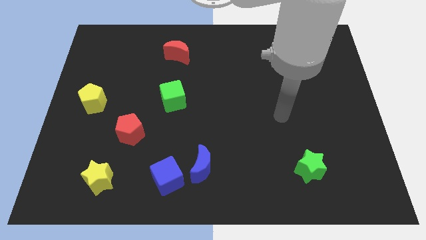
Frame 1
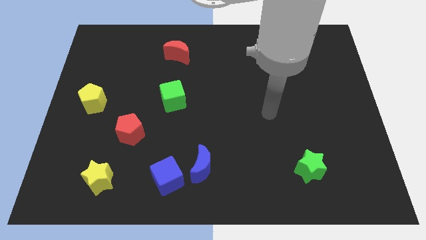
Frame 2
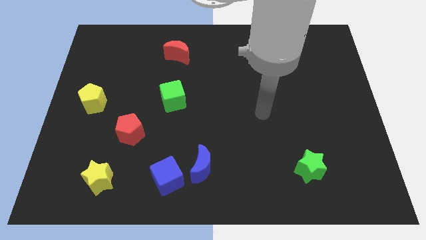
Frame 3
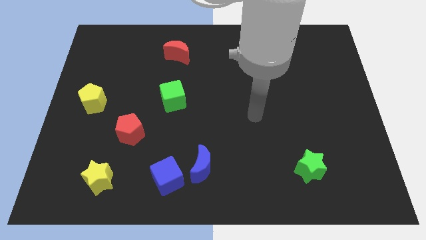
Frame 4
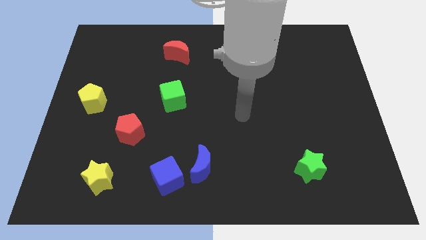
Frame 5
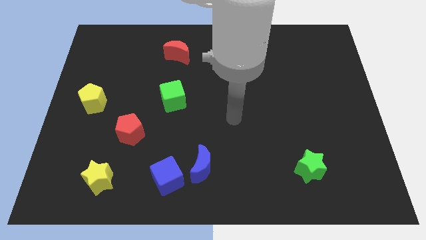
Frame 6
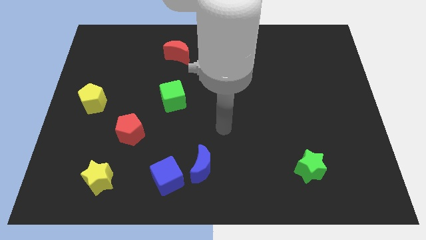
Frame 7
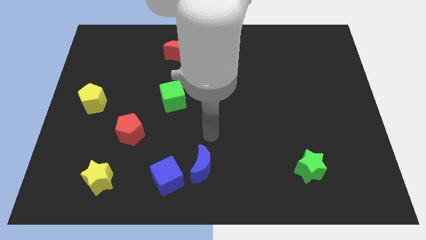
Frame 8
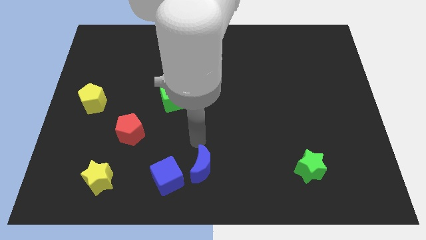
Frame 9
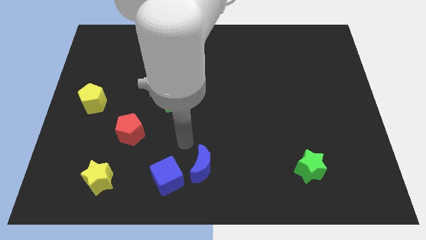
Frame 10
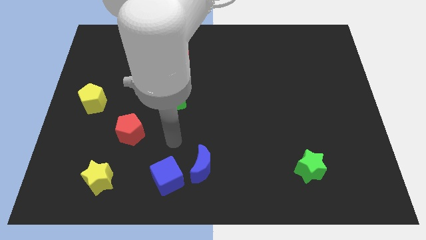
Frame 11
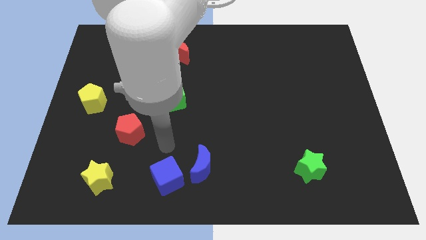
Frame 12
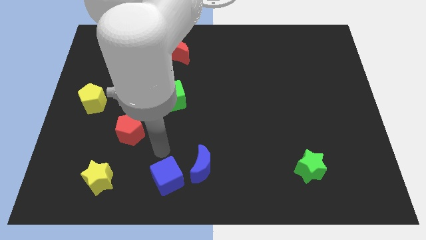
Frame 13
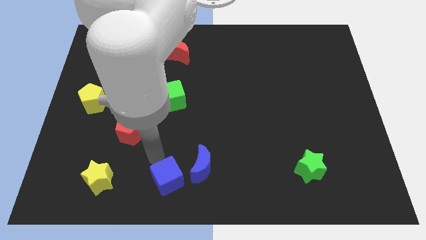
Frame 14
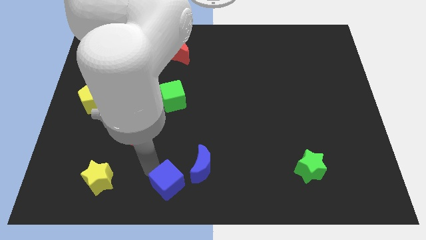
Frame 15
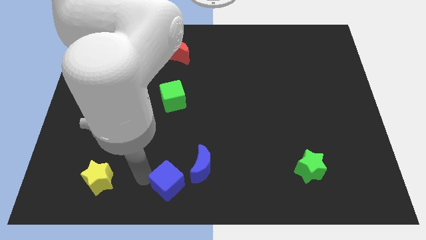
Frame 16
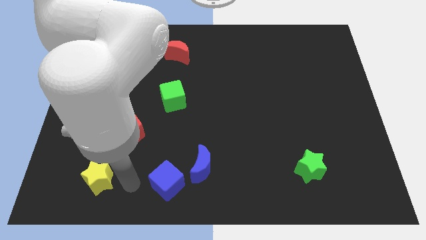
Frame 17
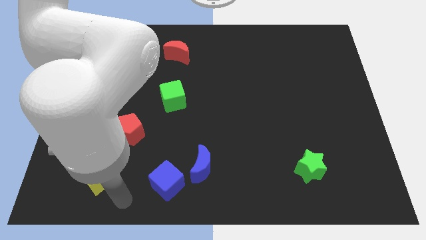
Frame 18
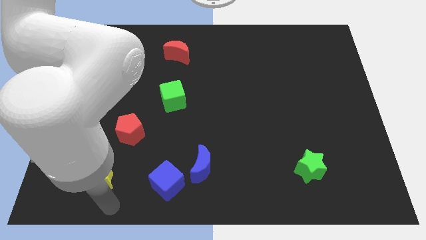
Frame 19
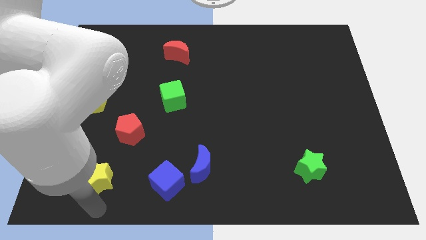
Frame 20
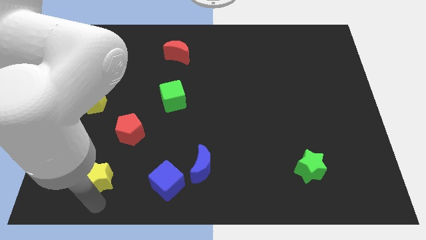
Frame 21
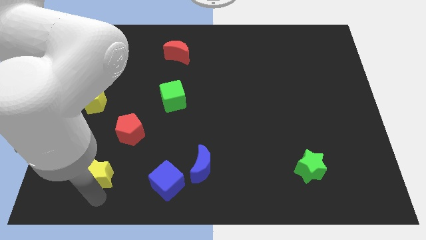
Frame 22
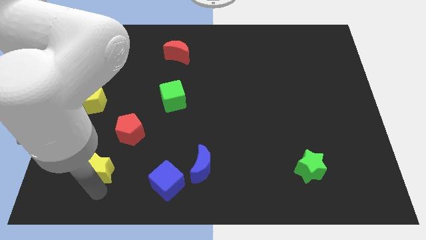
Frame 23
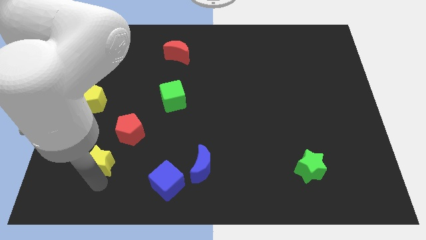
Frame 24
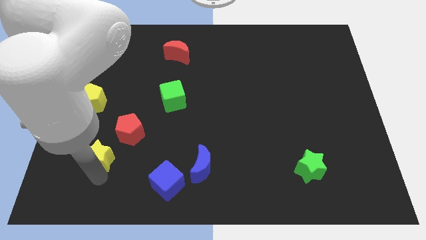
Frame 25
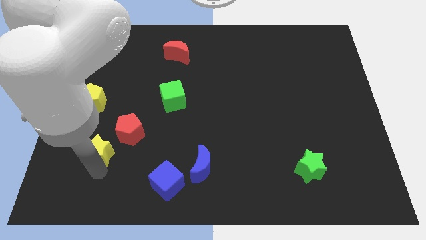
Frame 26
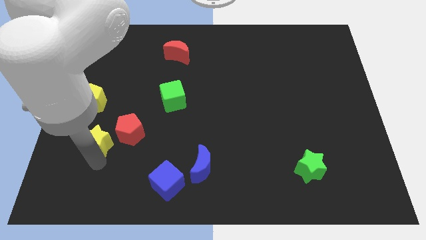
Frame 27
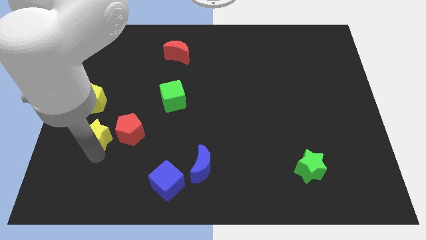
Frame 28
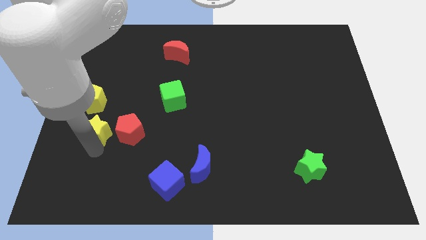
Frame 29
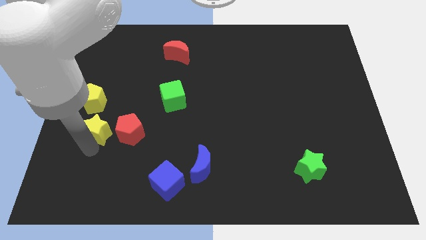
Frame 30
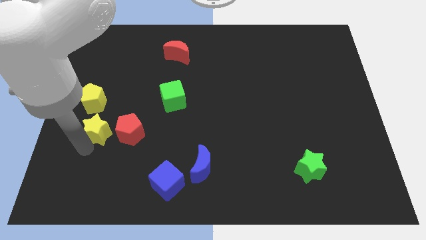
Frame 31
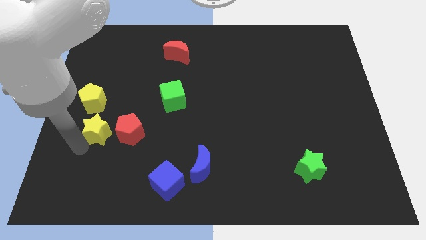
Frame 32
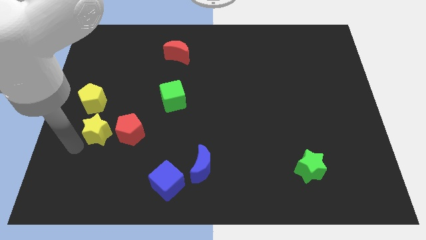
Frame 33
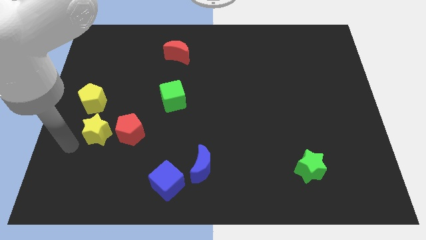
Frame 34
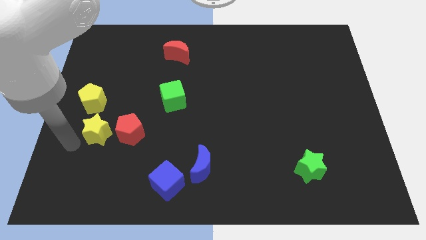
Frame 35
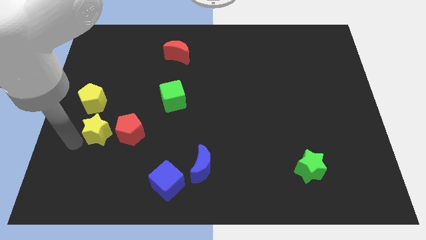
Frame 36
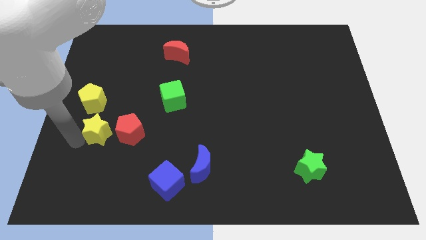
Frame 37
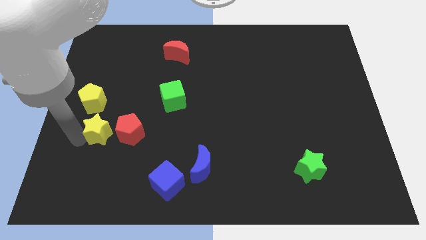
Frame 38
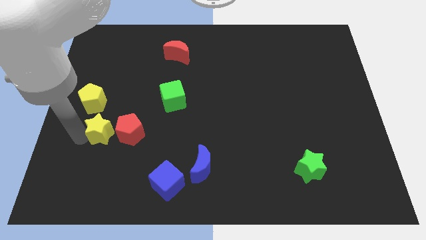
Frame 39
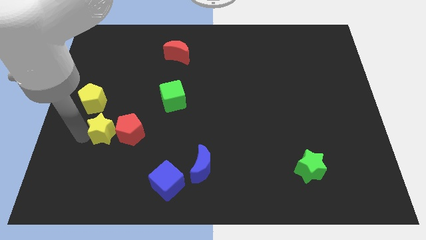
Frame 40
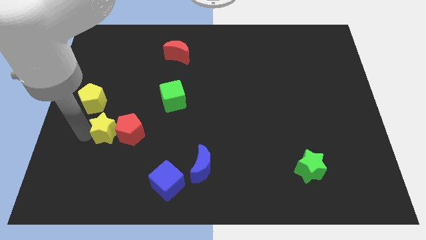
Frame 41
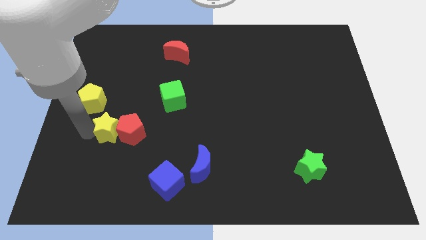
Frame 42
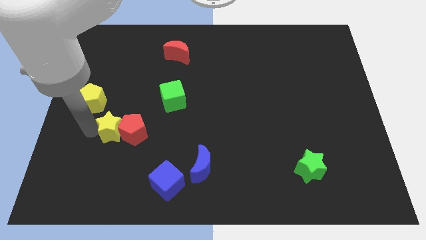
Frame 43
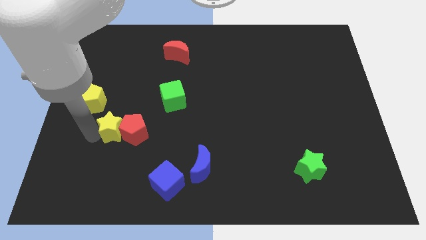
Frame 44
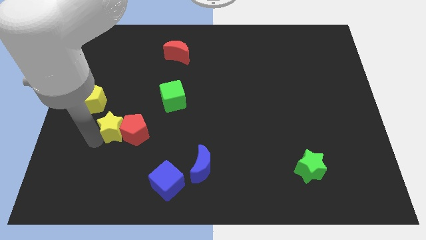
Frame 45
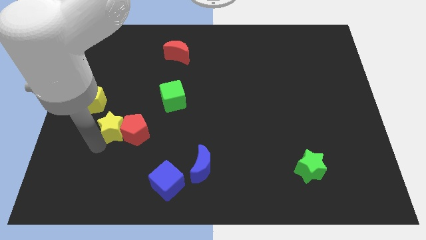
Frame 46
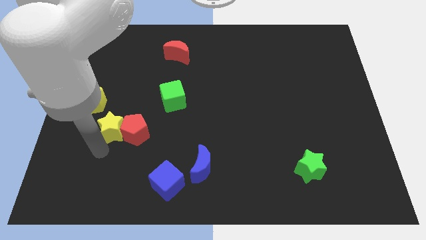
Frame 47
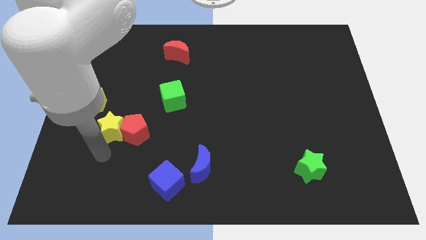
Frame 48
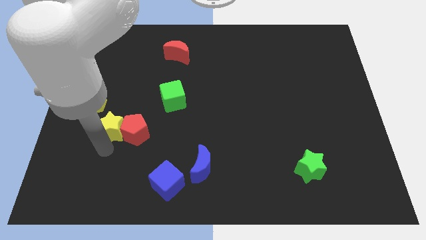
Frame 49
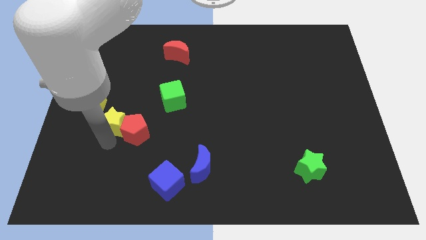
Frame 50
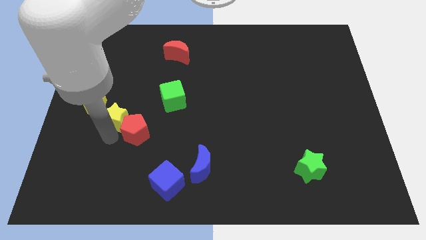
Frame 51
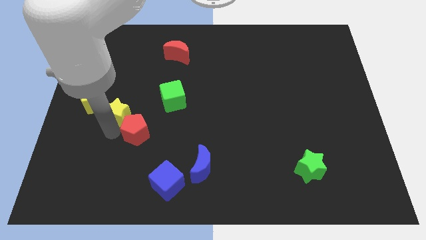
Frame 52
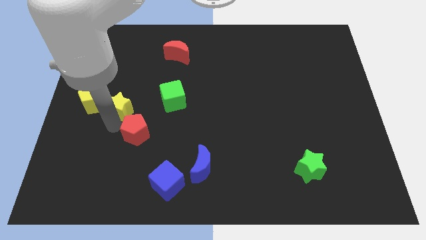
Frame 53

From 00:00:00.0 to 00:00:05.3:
move the yellow star to the left side of the green cube

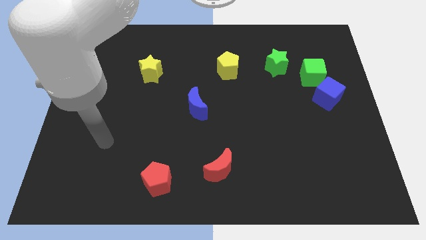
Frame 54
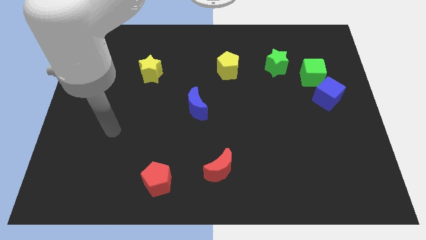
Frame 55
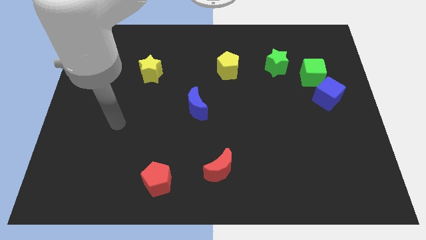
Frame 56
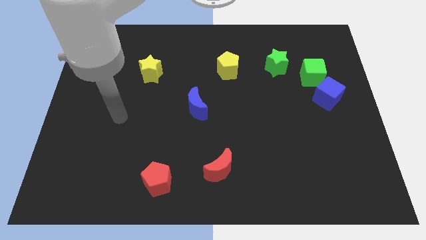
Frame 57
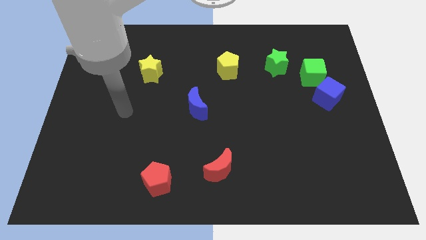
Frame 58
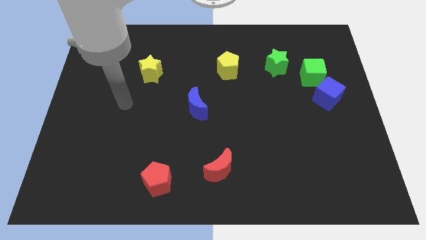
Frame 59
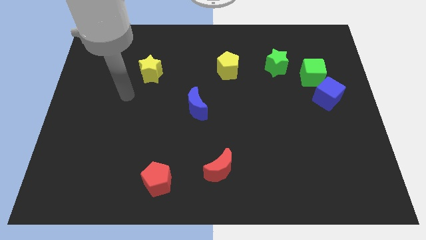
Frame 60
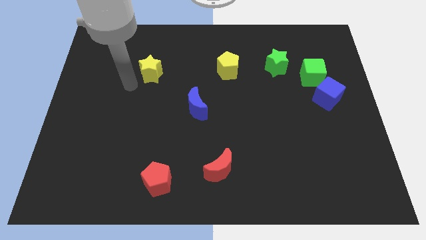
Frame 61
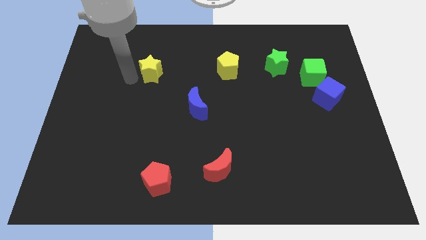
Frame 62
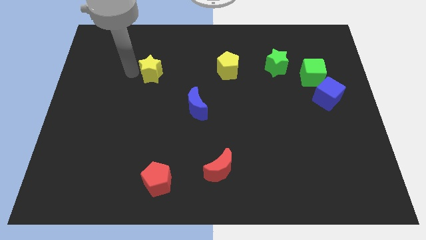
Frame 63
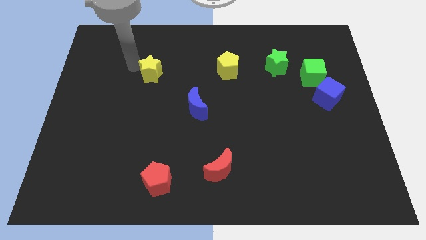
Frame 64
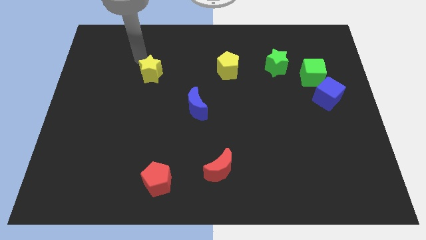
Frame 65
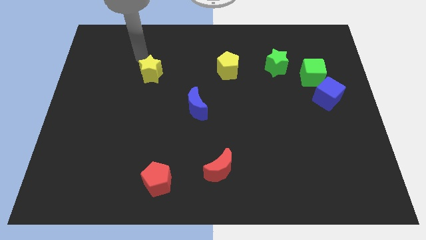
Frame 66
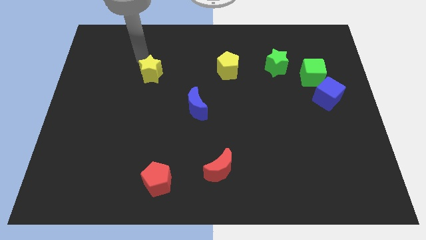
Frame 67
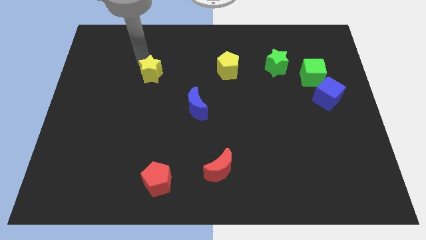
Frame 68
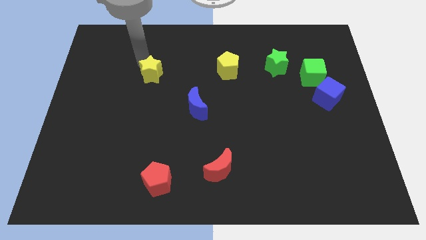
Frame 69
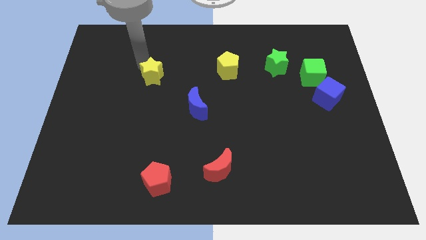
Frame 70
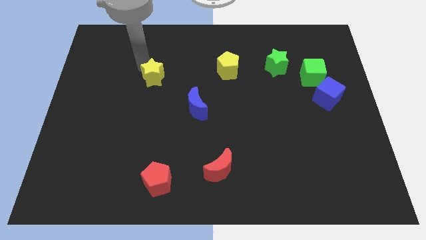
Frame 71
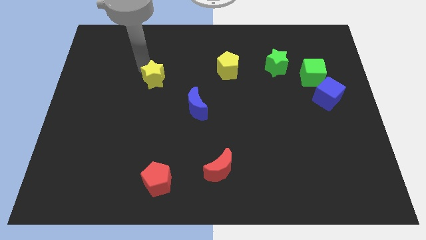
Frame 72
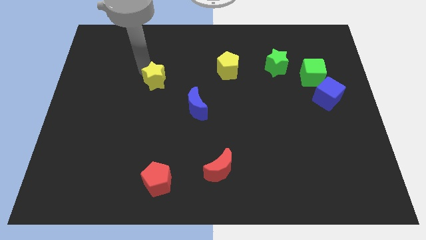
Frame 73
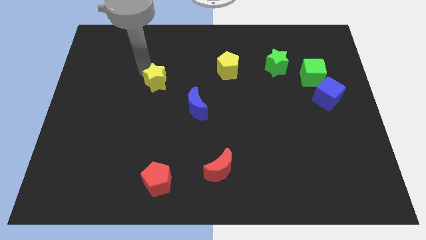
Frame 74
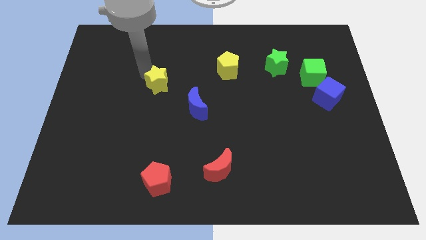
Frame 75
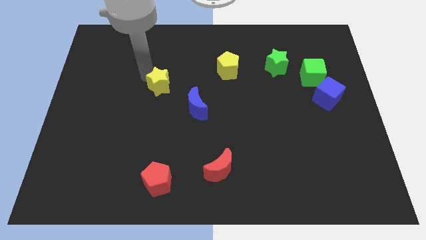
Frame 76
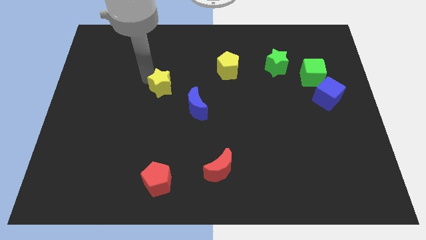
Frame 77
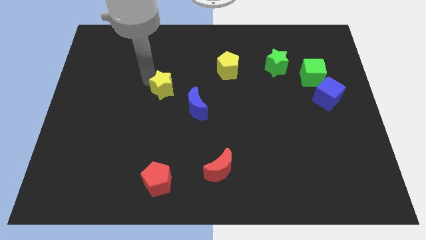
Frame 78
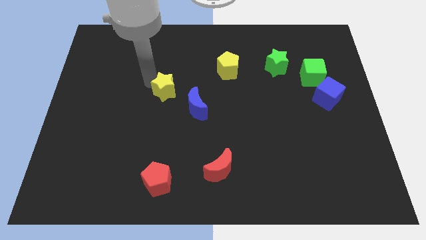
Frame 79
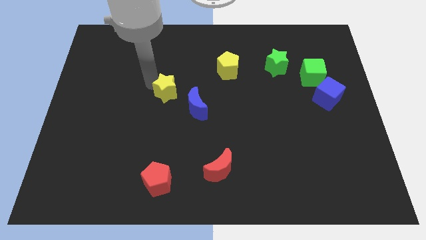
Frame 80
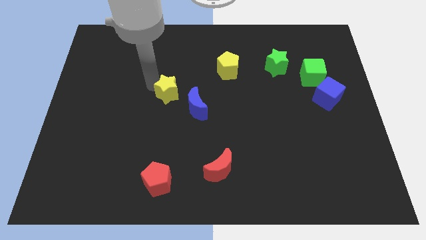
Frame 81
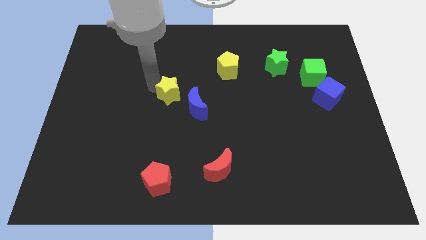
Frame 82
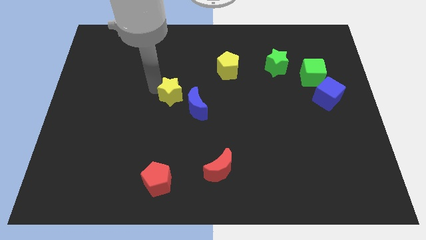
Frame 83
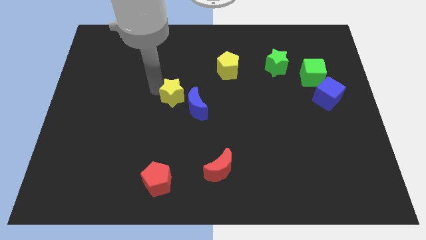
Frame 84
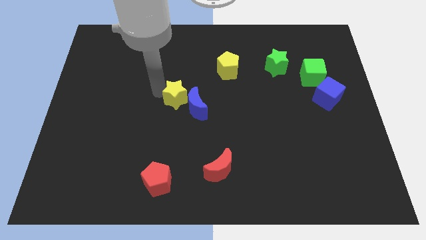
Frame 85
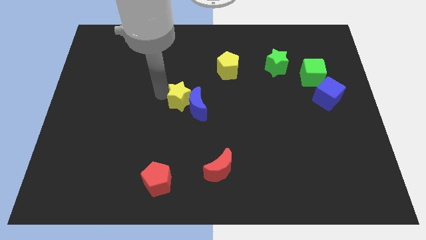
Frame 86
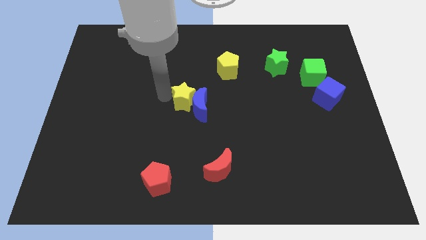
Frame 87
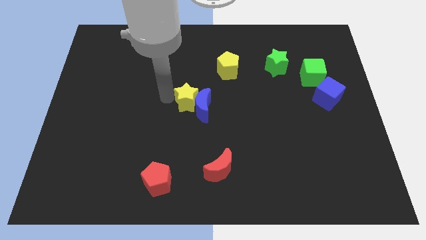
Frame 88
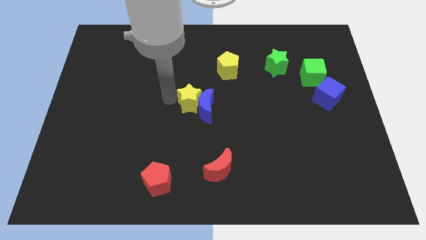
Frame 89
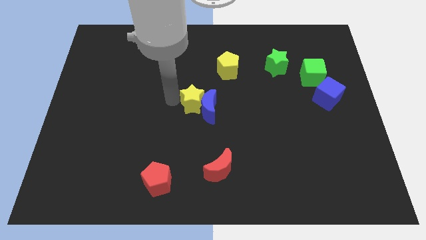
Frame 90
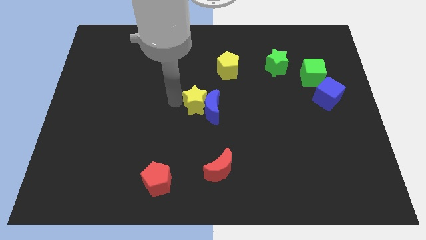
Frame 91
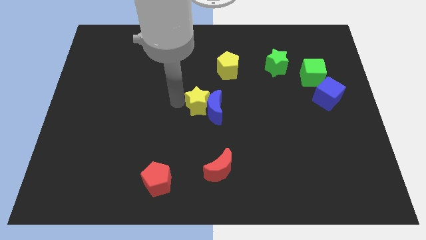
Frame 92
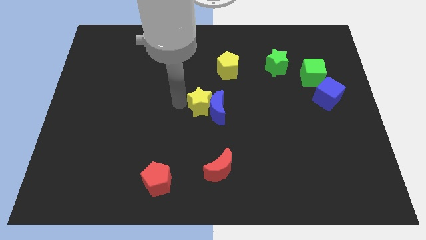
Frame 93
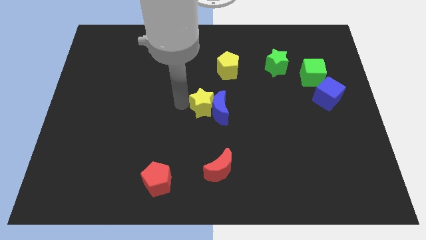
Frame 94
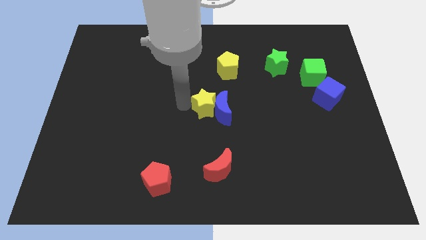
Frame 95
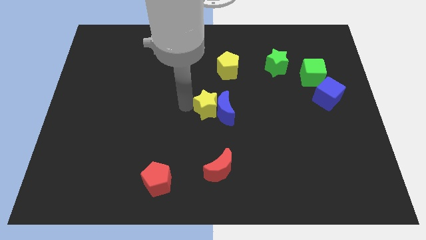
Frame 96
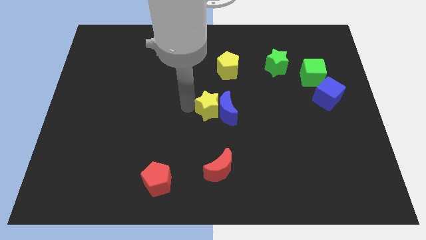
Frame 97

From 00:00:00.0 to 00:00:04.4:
put the yellow star to the bottom side of the yellow pentagon
